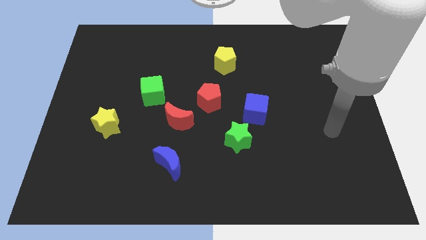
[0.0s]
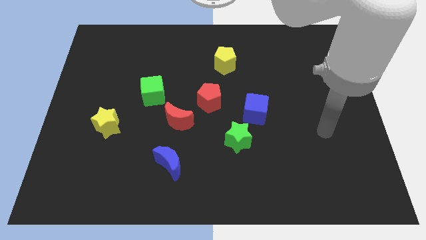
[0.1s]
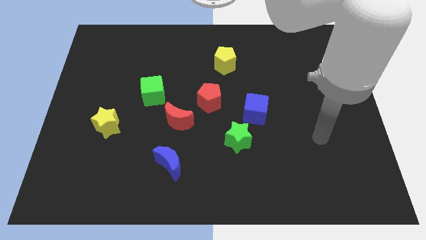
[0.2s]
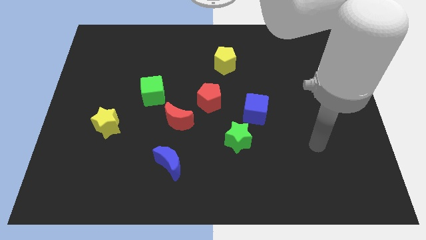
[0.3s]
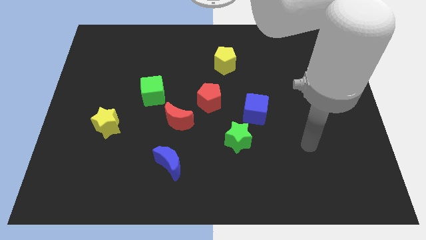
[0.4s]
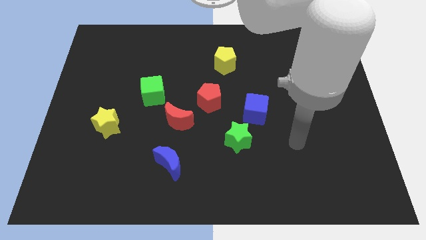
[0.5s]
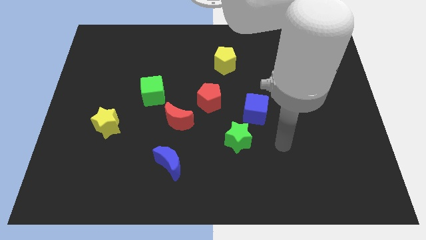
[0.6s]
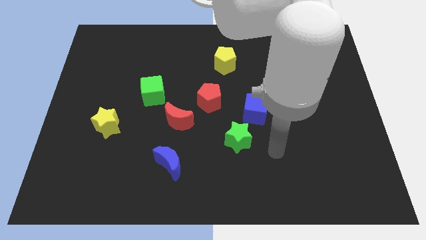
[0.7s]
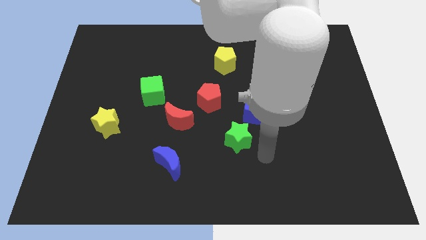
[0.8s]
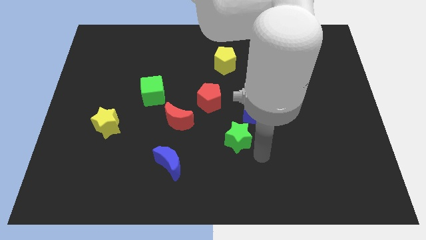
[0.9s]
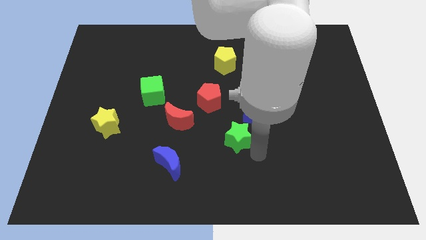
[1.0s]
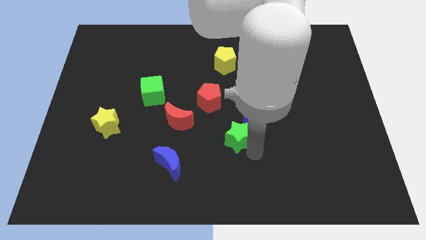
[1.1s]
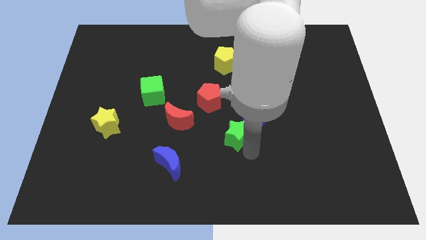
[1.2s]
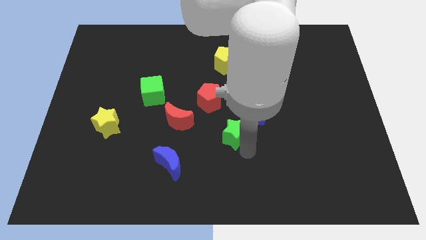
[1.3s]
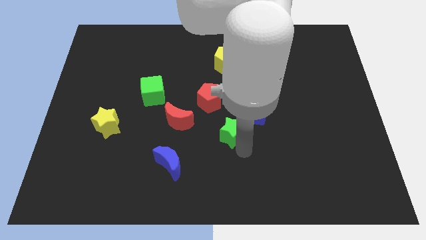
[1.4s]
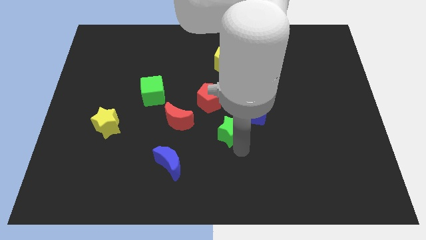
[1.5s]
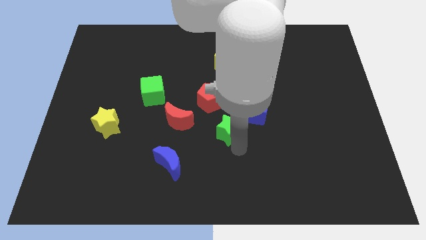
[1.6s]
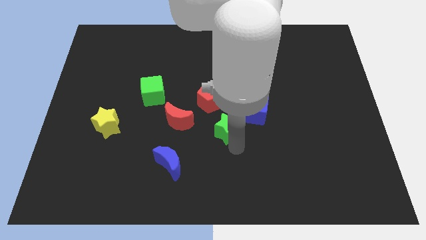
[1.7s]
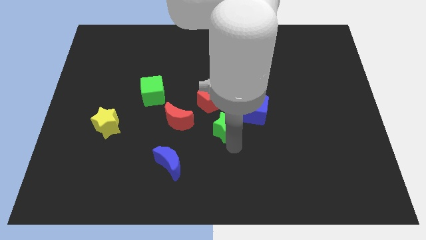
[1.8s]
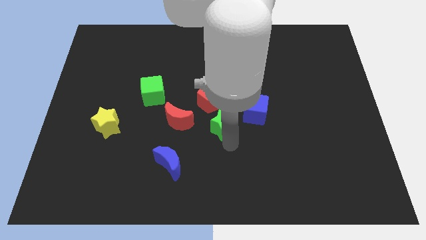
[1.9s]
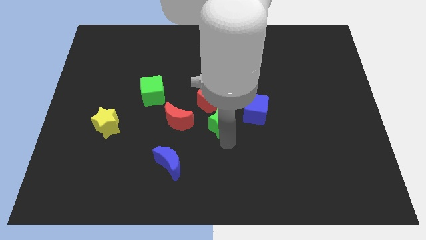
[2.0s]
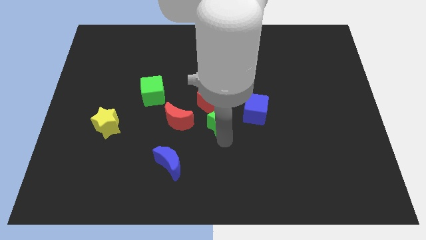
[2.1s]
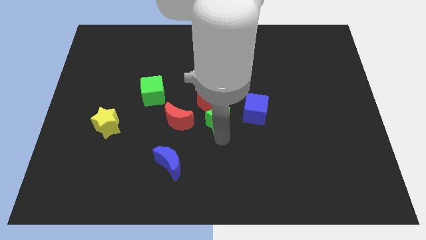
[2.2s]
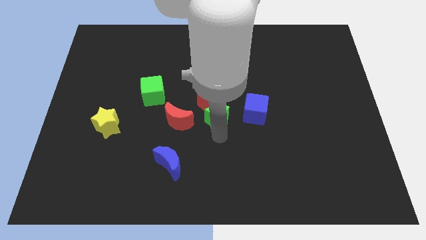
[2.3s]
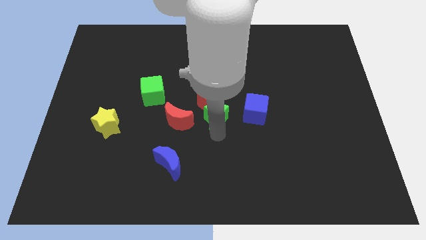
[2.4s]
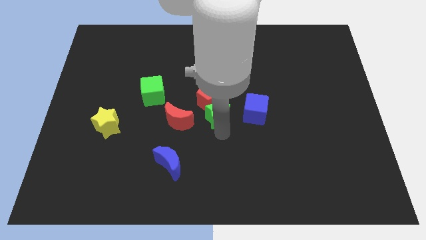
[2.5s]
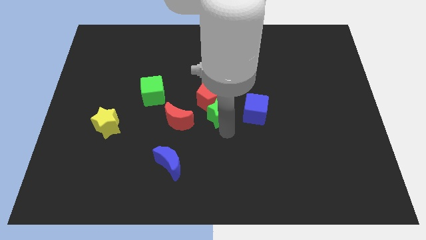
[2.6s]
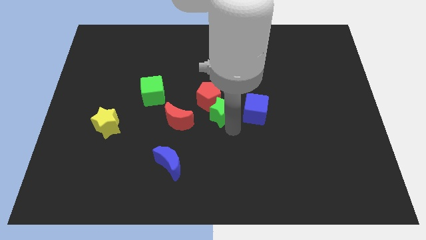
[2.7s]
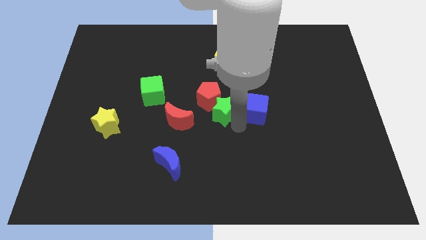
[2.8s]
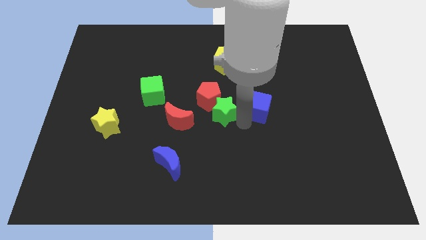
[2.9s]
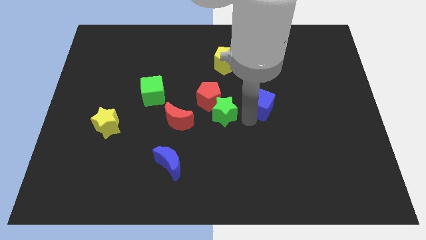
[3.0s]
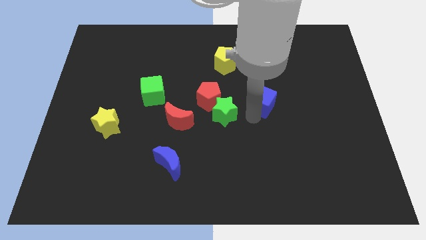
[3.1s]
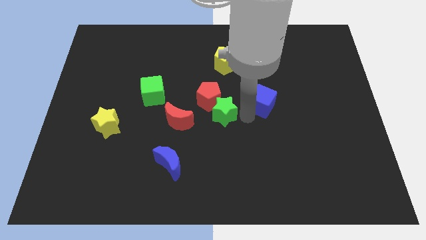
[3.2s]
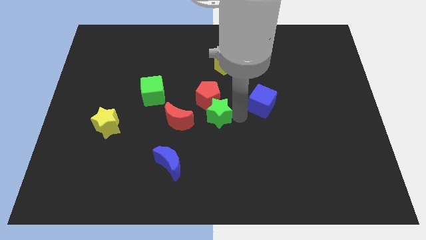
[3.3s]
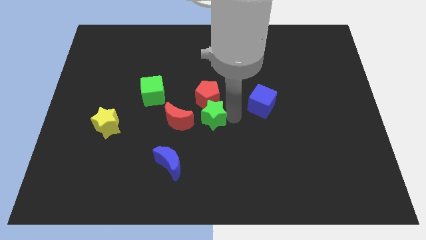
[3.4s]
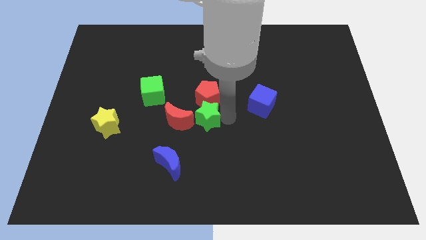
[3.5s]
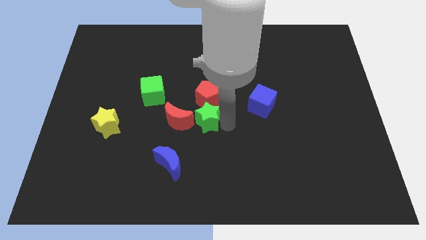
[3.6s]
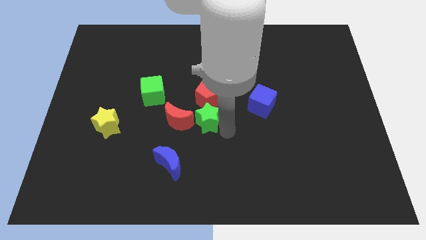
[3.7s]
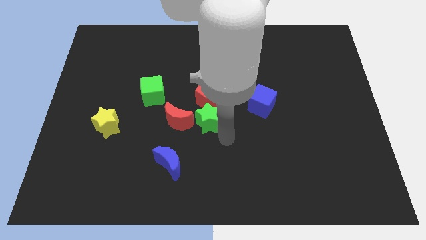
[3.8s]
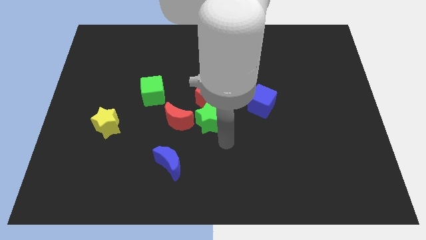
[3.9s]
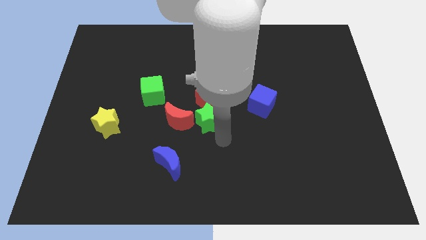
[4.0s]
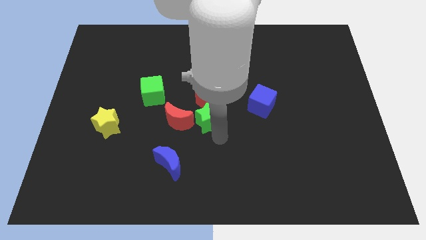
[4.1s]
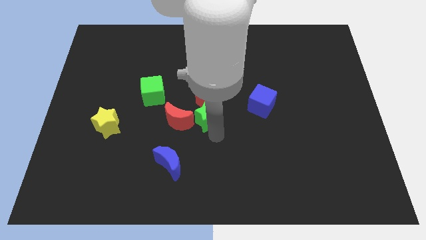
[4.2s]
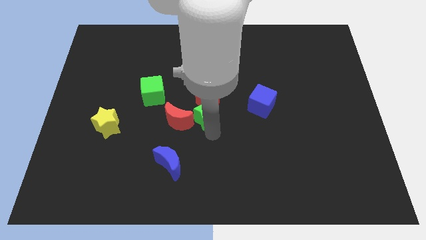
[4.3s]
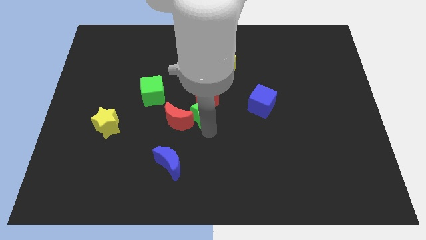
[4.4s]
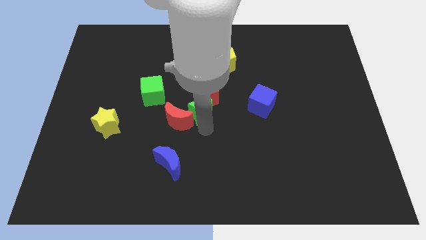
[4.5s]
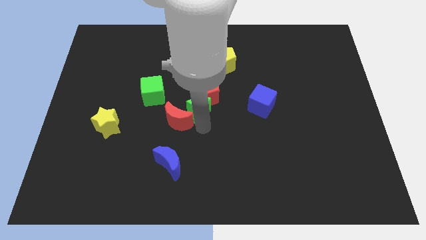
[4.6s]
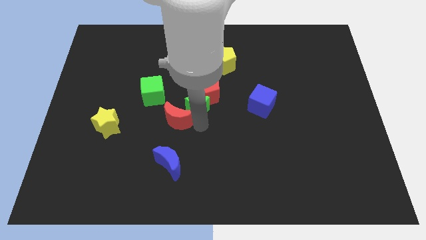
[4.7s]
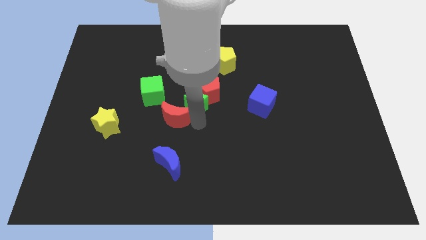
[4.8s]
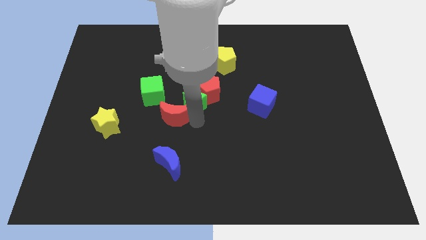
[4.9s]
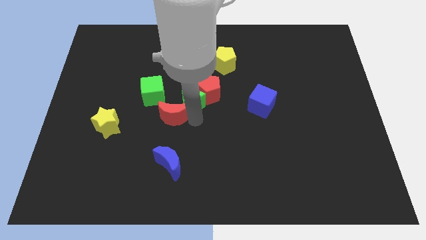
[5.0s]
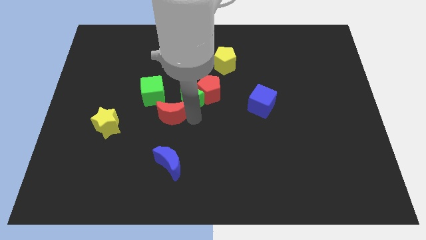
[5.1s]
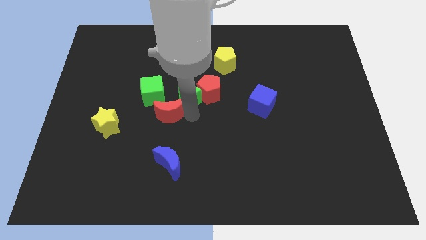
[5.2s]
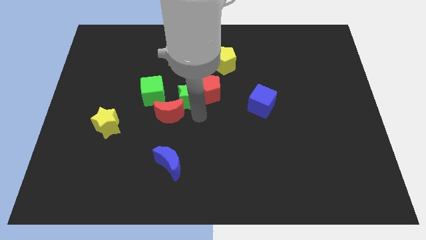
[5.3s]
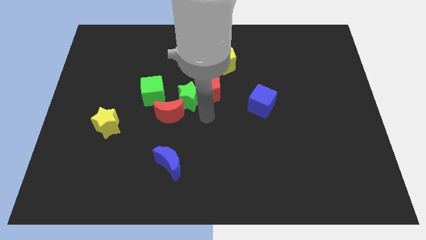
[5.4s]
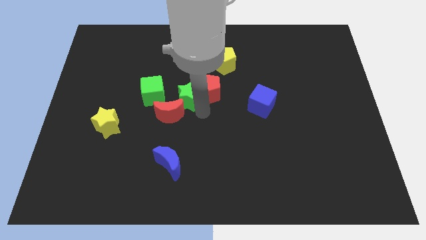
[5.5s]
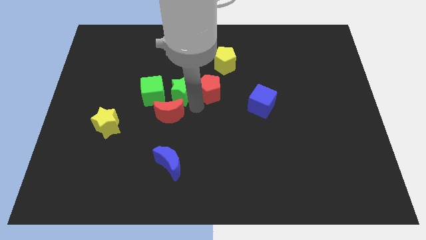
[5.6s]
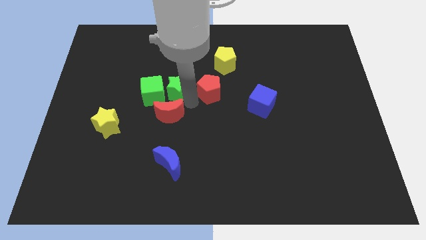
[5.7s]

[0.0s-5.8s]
push the green star diagonally upwards and left

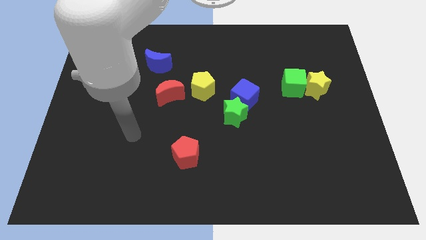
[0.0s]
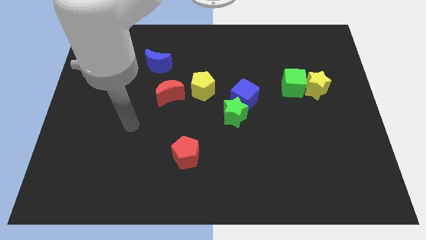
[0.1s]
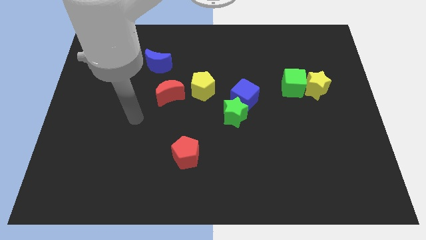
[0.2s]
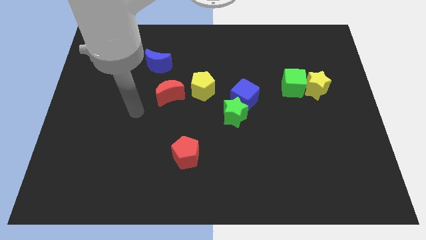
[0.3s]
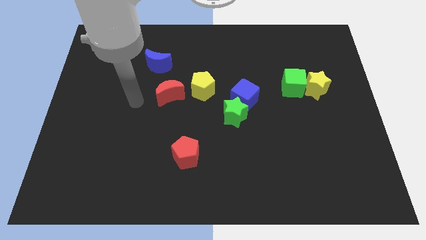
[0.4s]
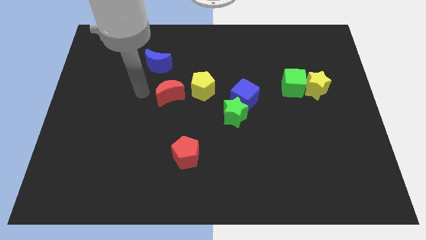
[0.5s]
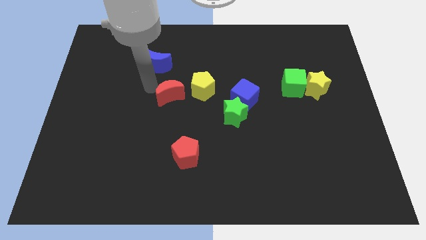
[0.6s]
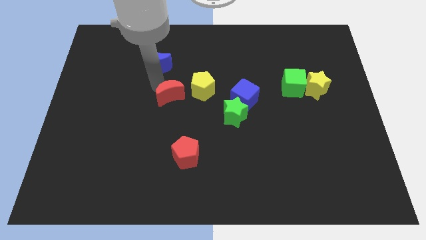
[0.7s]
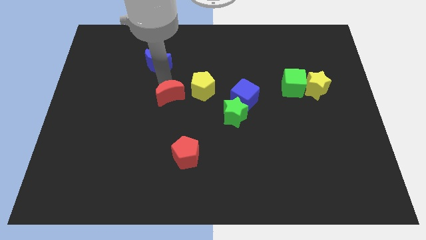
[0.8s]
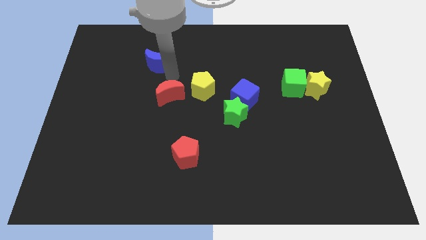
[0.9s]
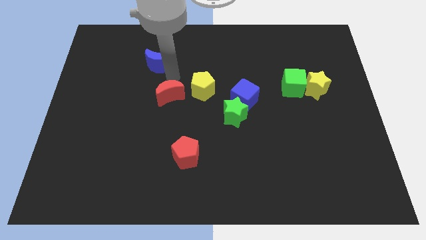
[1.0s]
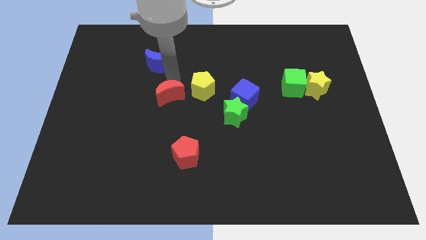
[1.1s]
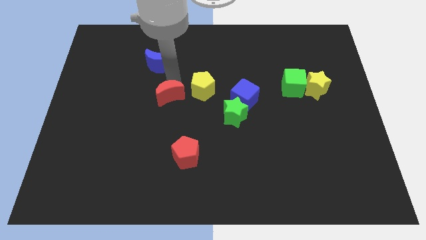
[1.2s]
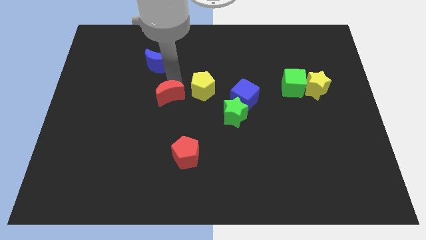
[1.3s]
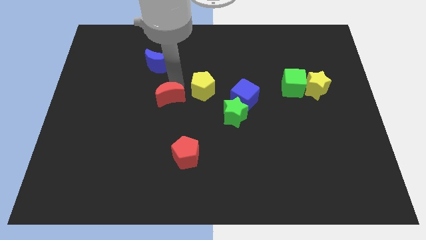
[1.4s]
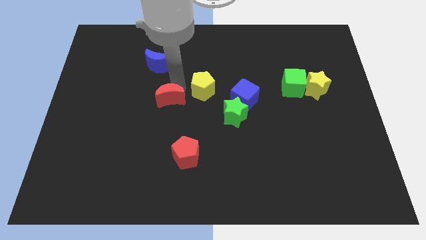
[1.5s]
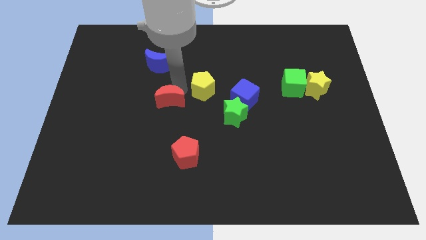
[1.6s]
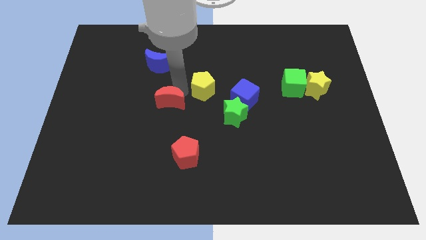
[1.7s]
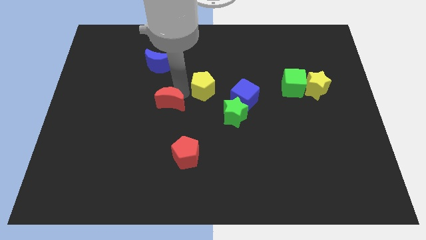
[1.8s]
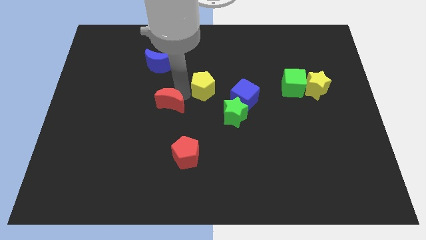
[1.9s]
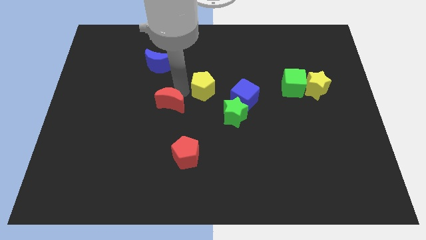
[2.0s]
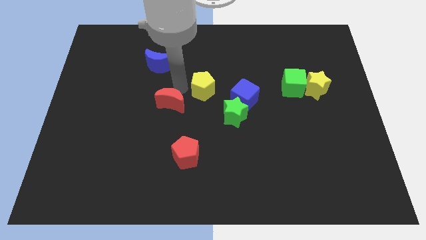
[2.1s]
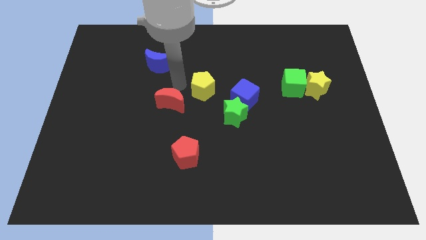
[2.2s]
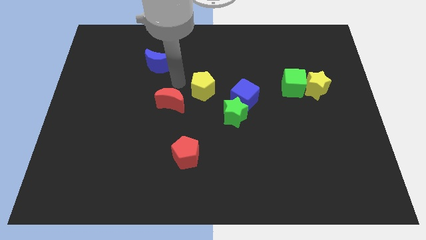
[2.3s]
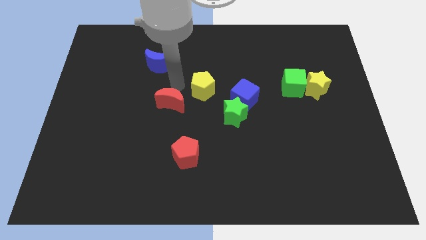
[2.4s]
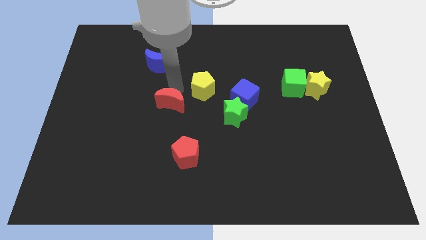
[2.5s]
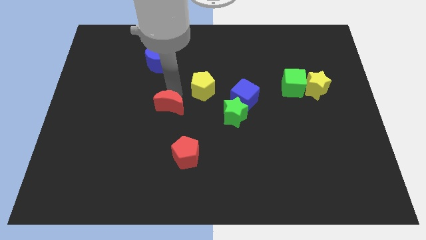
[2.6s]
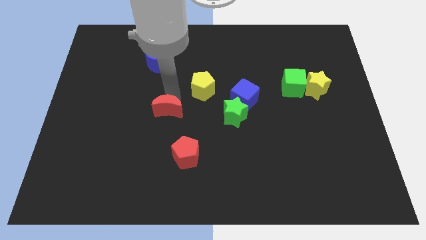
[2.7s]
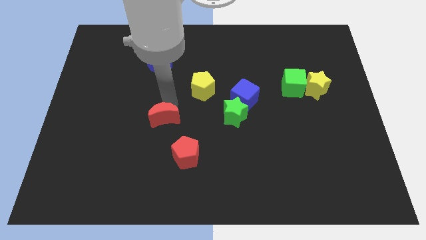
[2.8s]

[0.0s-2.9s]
slightly slide the red moon down

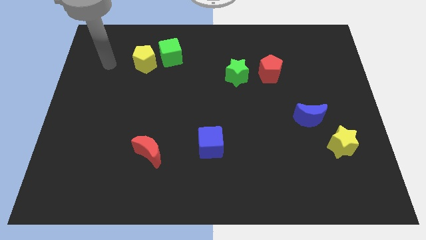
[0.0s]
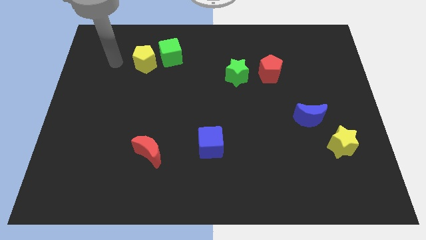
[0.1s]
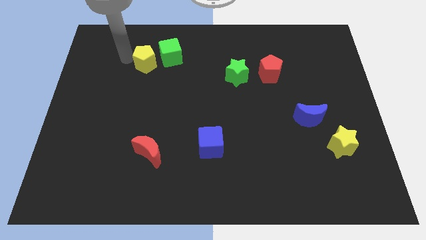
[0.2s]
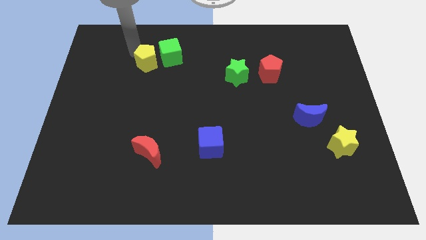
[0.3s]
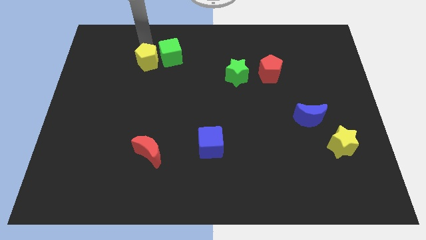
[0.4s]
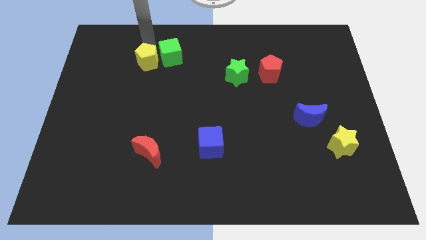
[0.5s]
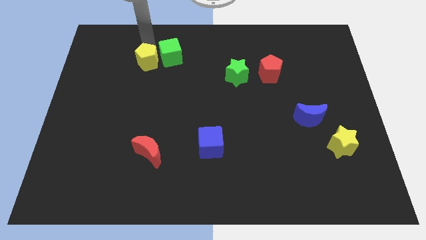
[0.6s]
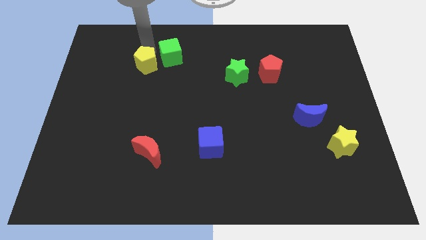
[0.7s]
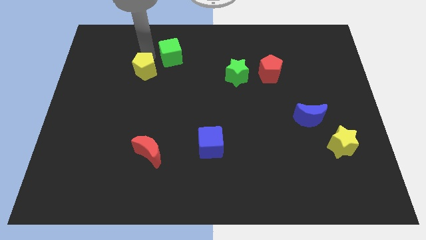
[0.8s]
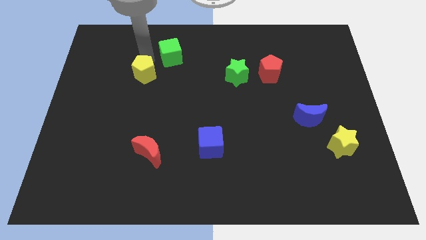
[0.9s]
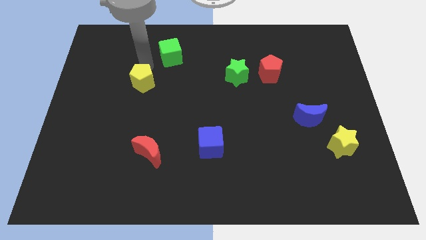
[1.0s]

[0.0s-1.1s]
slightly push the yellow pentagon downwards
